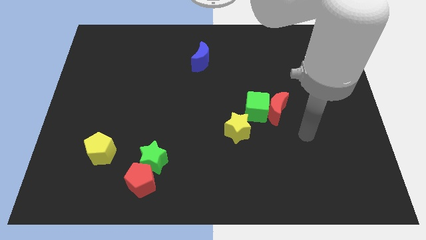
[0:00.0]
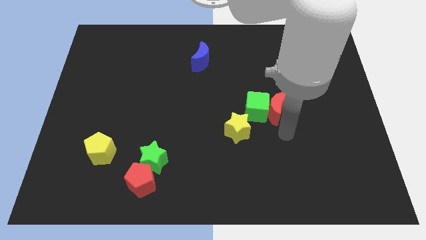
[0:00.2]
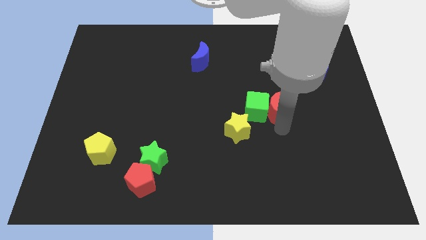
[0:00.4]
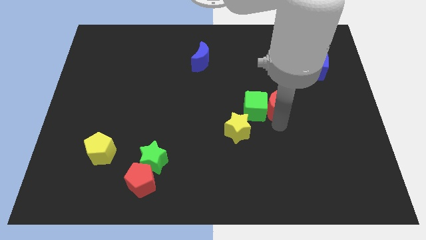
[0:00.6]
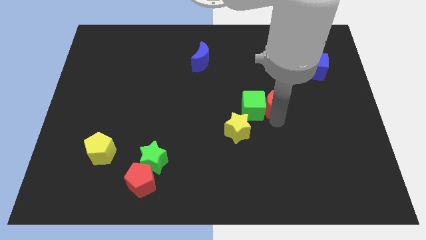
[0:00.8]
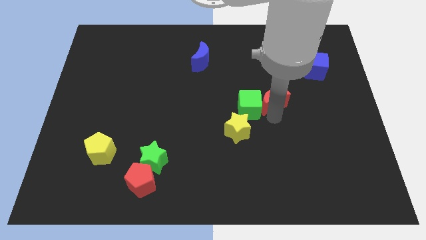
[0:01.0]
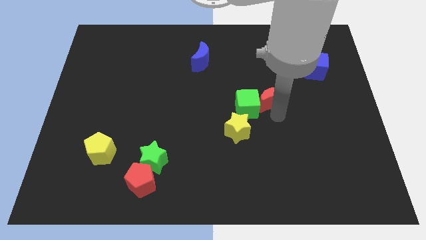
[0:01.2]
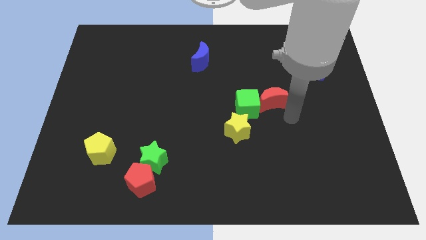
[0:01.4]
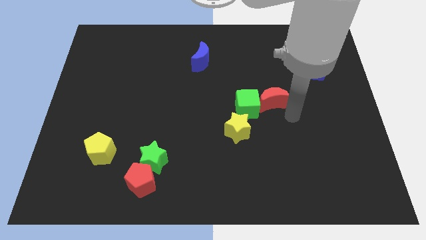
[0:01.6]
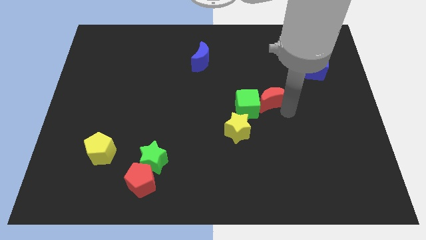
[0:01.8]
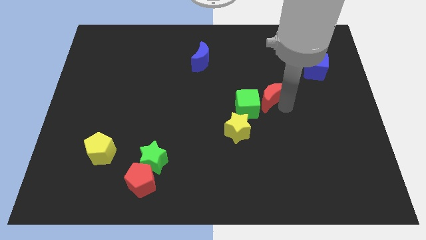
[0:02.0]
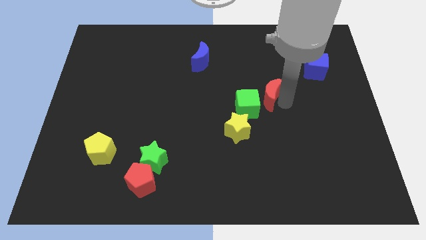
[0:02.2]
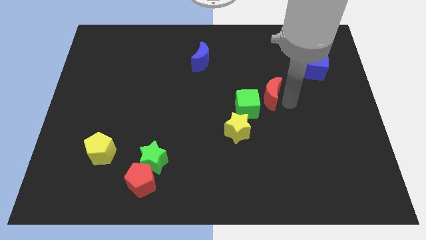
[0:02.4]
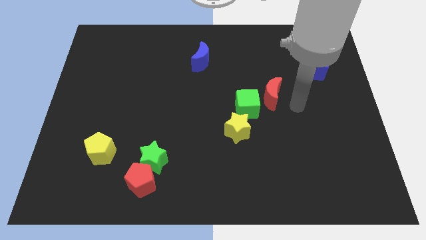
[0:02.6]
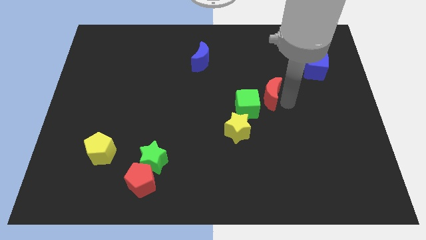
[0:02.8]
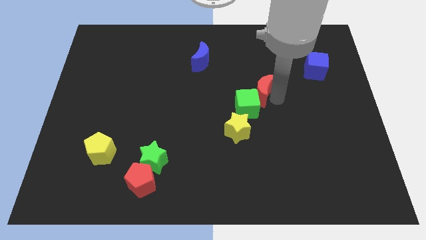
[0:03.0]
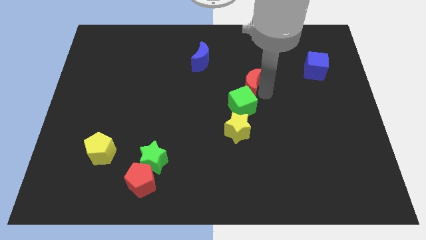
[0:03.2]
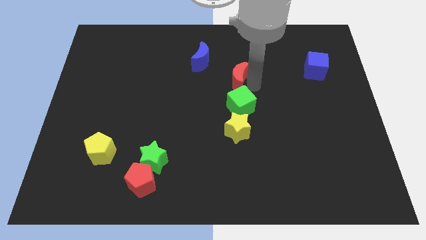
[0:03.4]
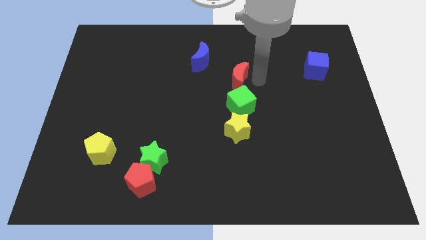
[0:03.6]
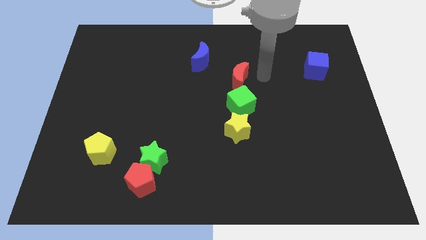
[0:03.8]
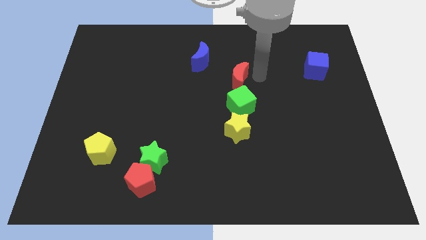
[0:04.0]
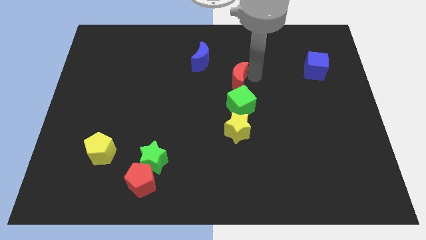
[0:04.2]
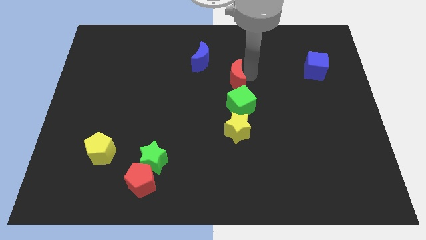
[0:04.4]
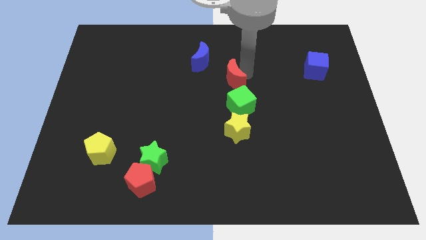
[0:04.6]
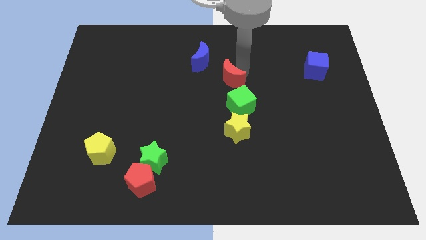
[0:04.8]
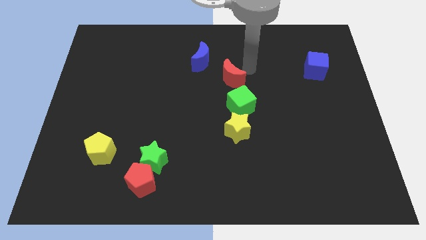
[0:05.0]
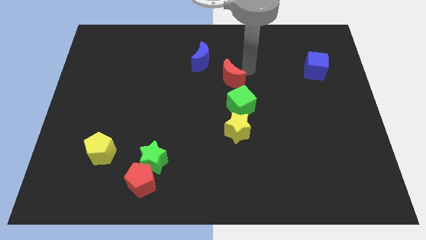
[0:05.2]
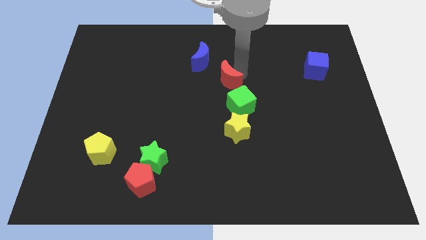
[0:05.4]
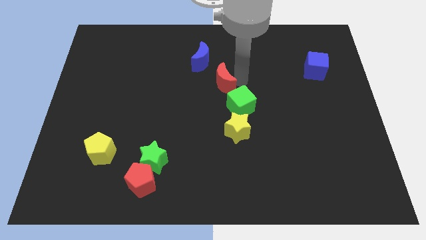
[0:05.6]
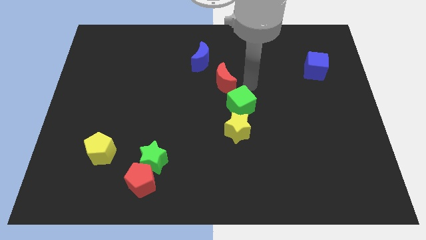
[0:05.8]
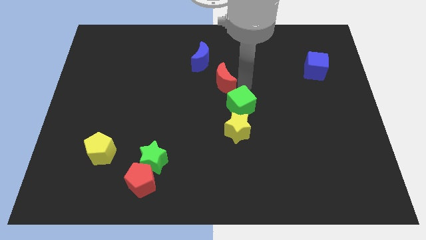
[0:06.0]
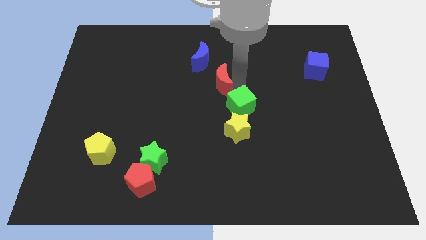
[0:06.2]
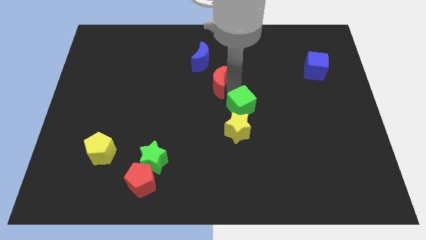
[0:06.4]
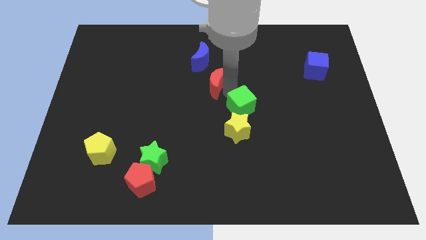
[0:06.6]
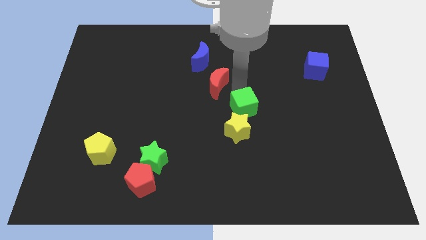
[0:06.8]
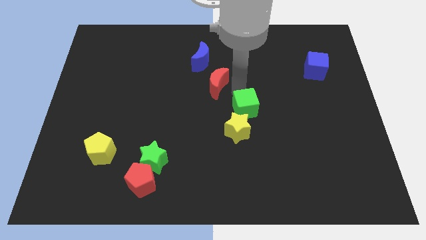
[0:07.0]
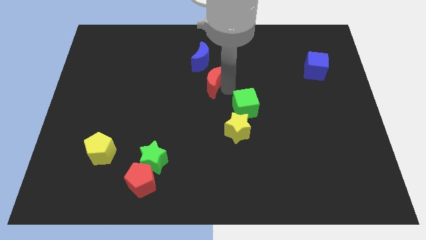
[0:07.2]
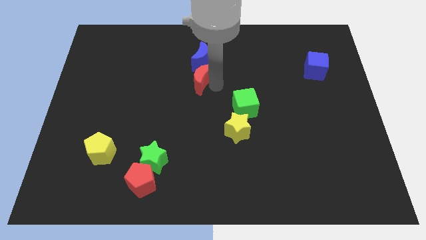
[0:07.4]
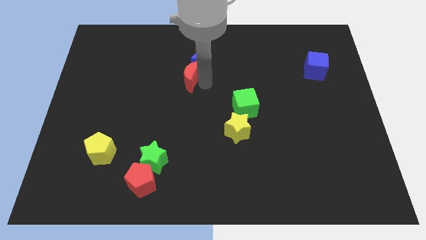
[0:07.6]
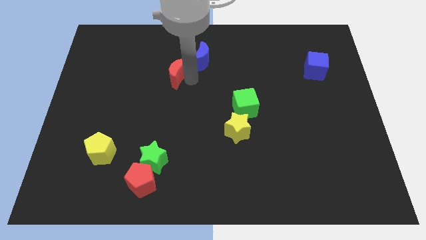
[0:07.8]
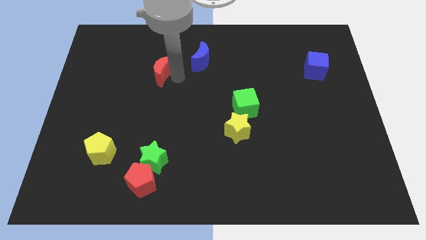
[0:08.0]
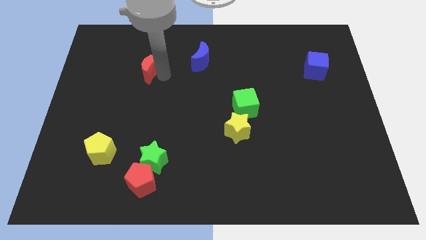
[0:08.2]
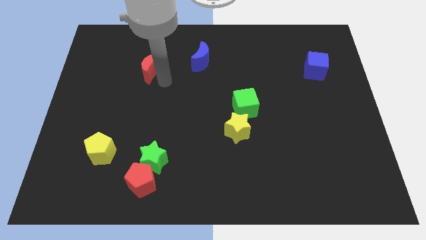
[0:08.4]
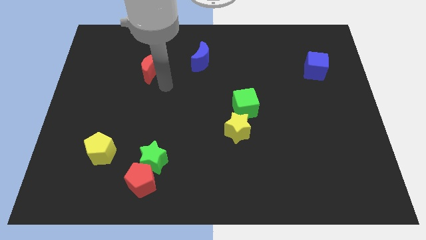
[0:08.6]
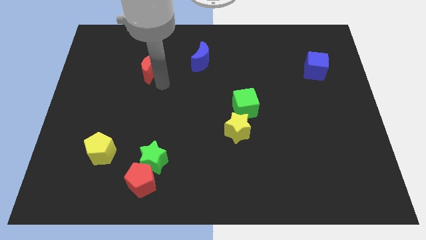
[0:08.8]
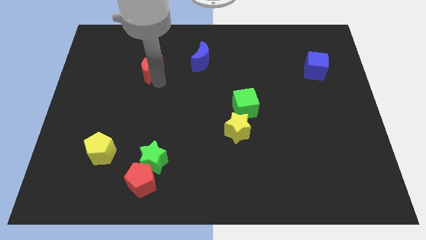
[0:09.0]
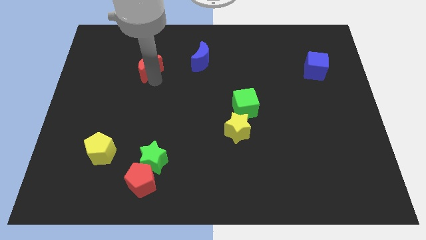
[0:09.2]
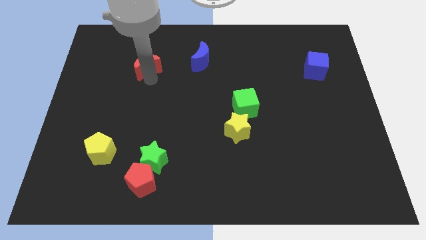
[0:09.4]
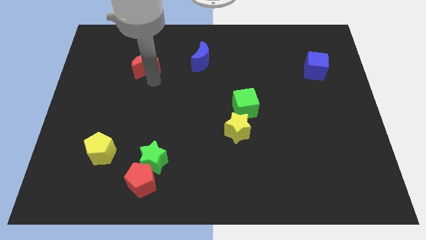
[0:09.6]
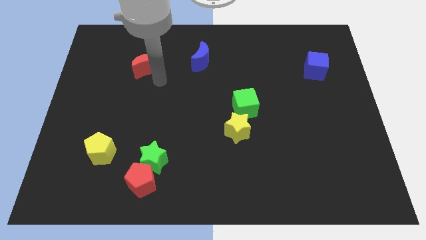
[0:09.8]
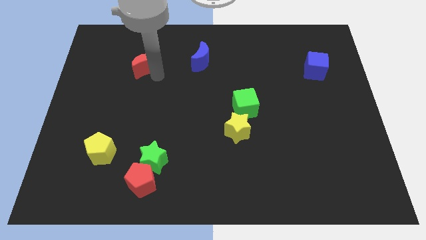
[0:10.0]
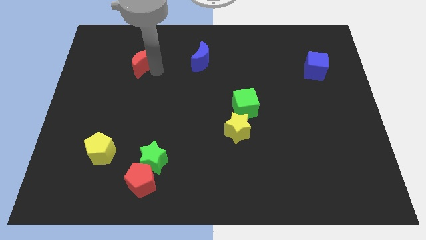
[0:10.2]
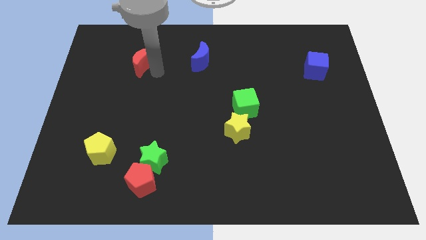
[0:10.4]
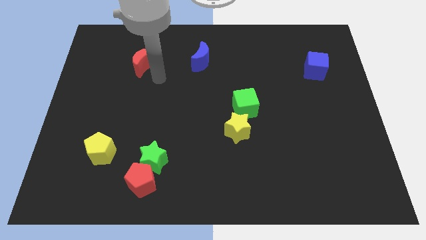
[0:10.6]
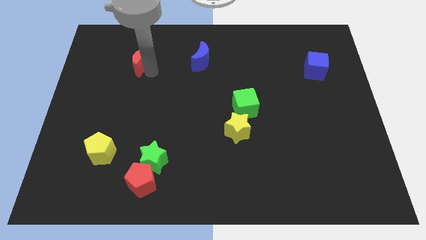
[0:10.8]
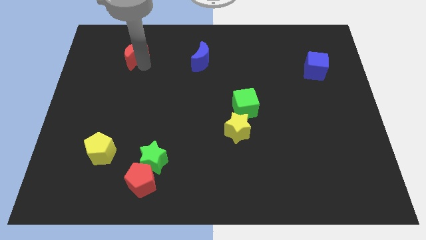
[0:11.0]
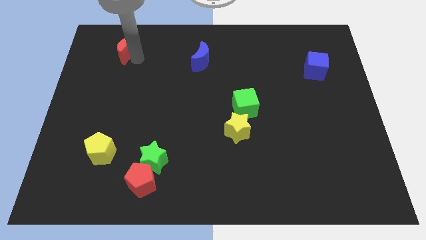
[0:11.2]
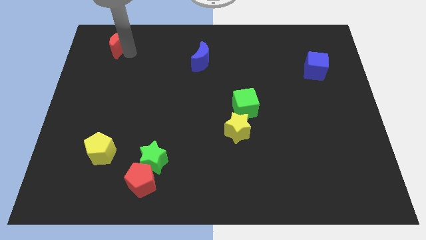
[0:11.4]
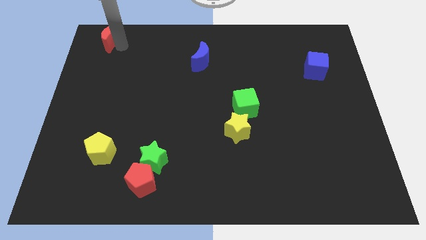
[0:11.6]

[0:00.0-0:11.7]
move the red moon to the top left

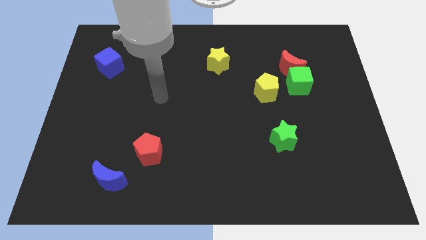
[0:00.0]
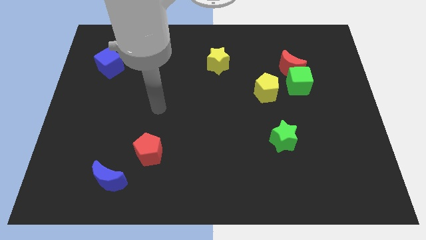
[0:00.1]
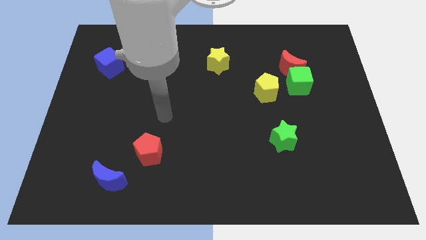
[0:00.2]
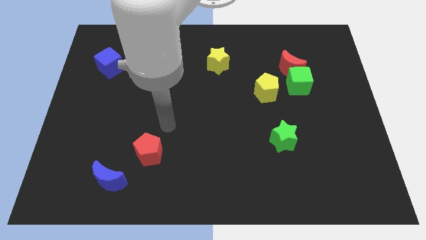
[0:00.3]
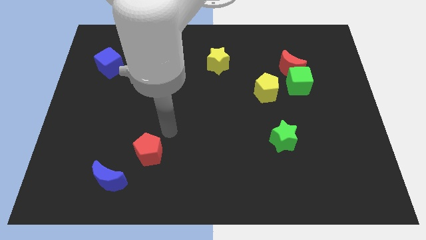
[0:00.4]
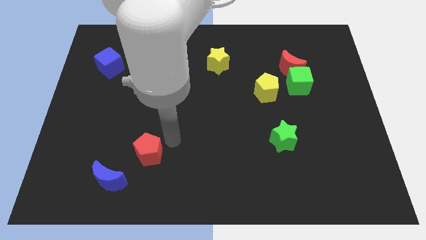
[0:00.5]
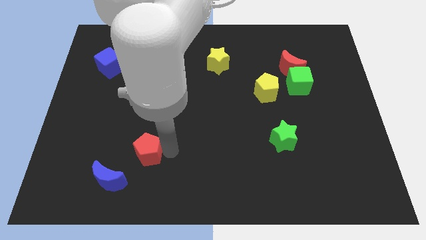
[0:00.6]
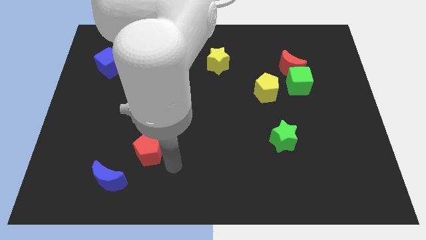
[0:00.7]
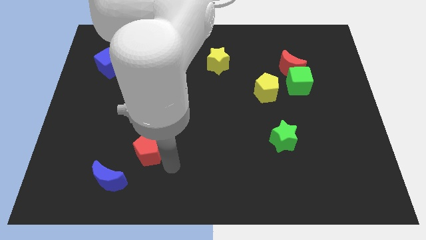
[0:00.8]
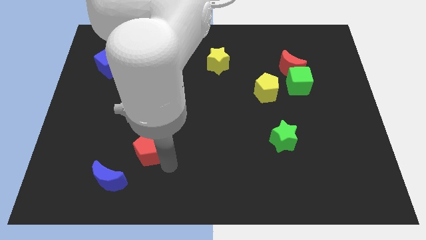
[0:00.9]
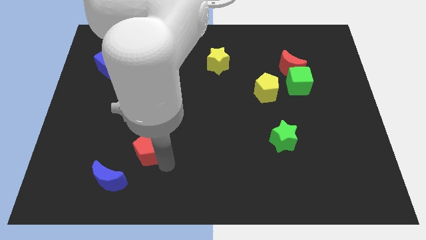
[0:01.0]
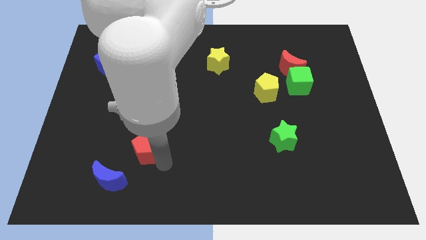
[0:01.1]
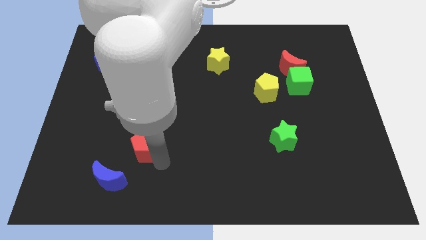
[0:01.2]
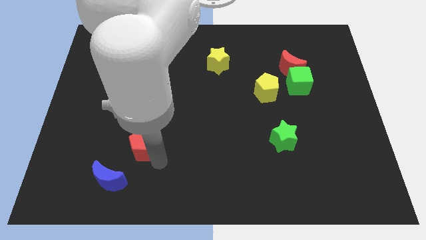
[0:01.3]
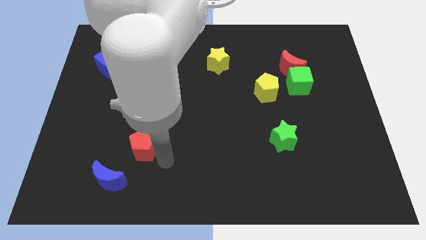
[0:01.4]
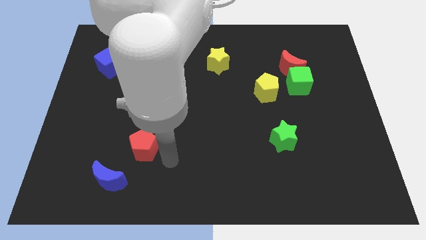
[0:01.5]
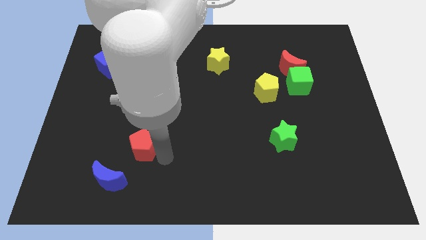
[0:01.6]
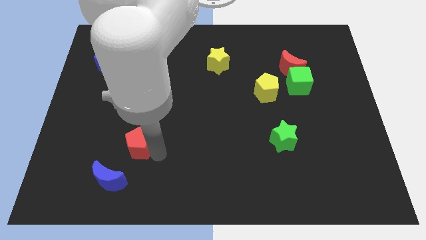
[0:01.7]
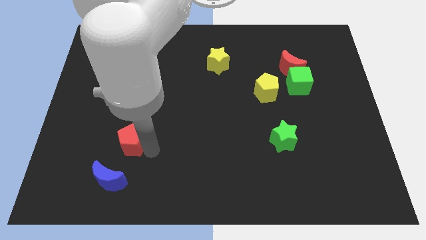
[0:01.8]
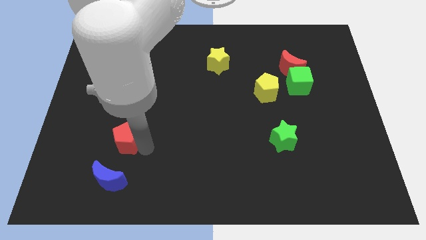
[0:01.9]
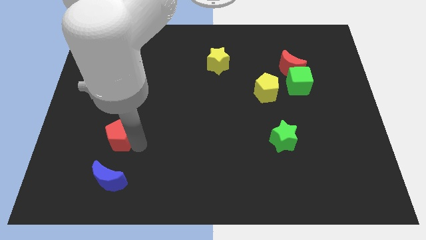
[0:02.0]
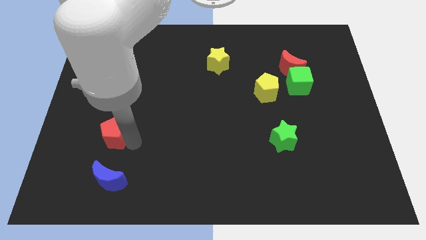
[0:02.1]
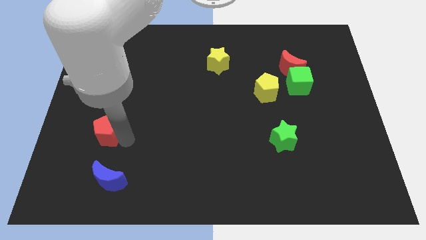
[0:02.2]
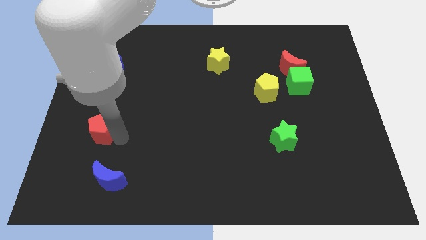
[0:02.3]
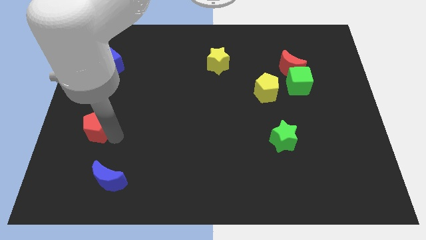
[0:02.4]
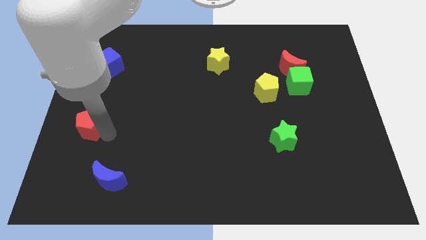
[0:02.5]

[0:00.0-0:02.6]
move the red pentagon to the center left
